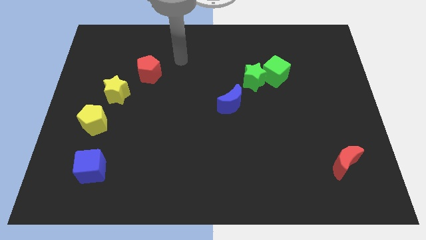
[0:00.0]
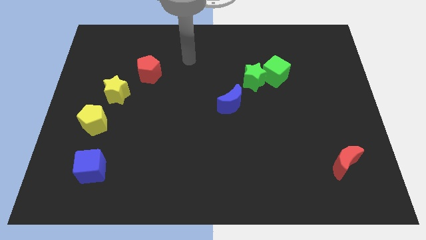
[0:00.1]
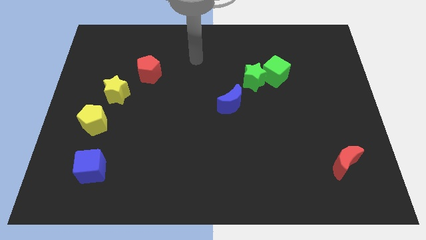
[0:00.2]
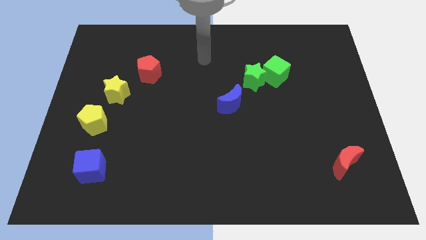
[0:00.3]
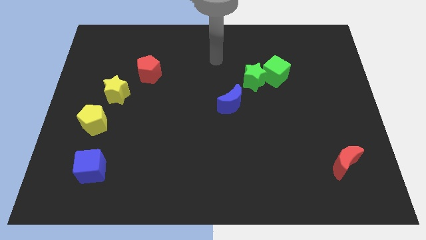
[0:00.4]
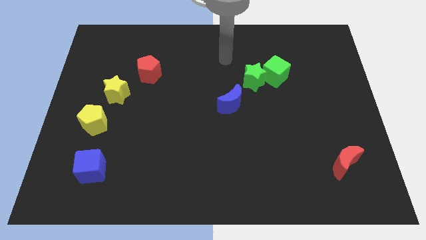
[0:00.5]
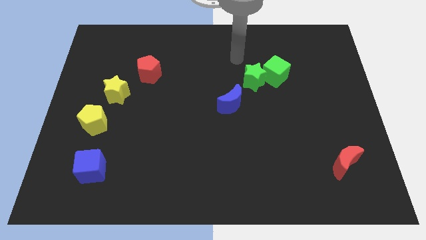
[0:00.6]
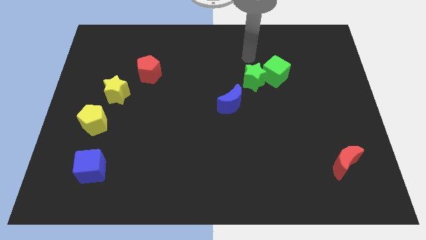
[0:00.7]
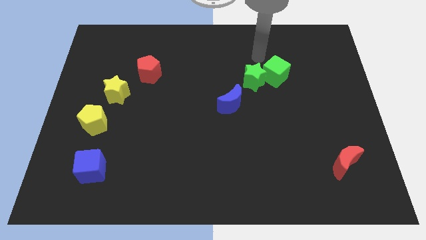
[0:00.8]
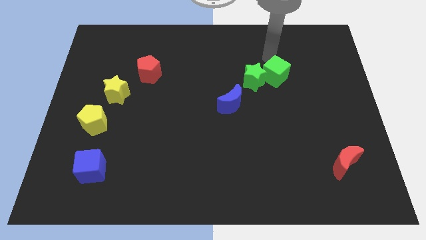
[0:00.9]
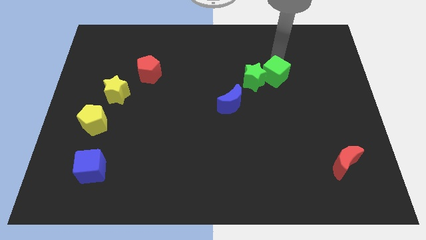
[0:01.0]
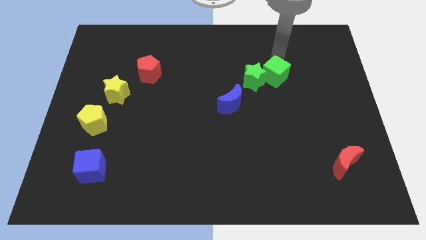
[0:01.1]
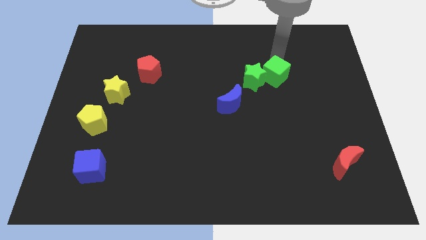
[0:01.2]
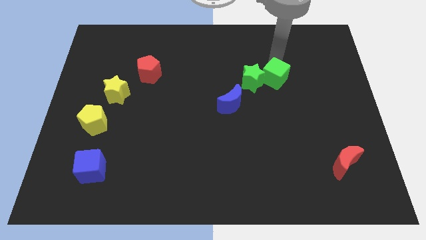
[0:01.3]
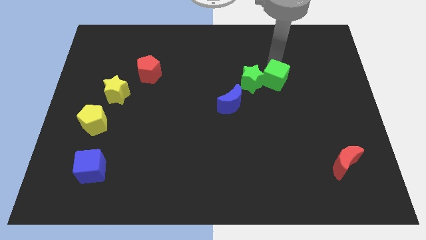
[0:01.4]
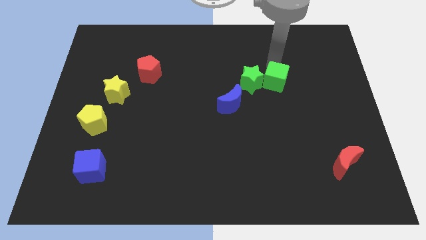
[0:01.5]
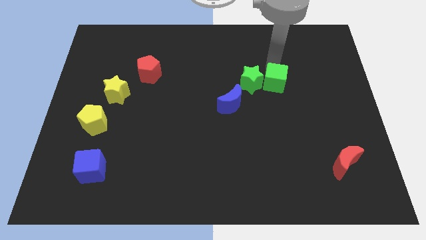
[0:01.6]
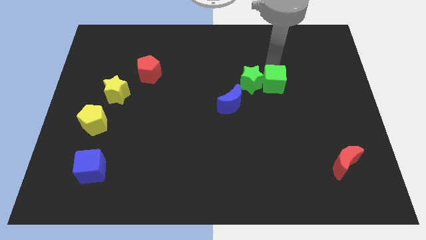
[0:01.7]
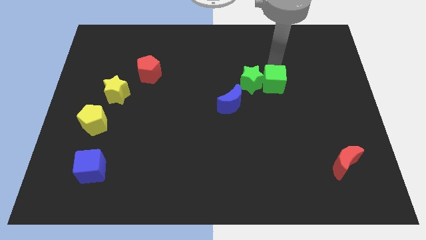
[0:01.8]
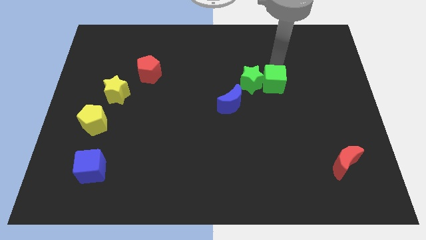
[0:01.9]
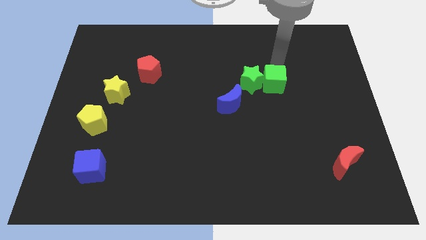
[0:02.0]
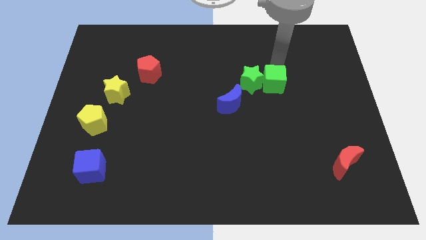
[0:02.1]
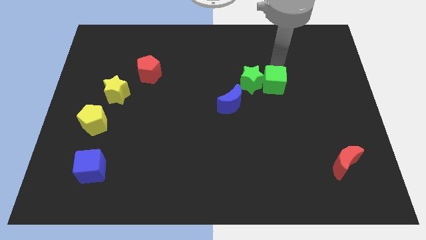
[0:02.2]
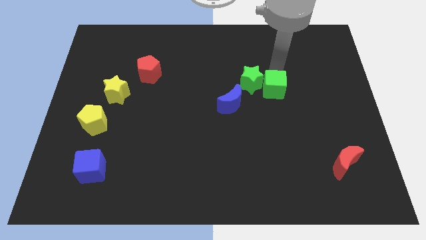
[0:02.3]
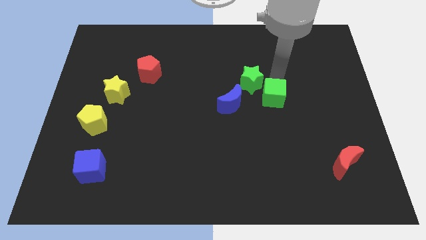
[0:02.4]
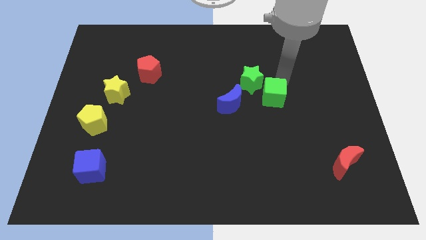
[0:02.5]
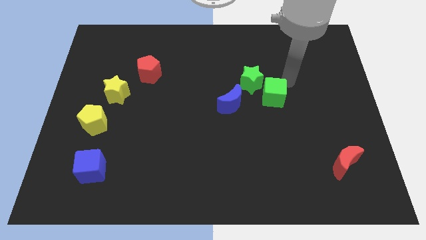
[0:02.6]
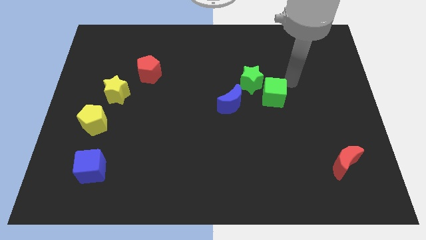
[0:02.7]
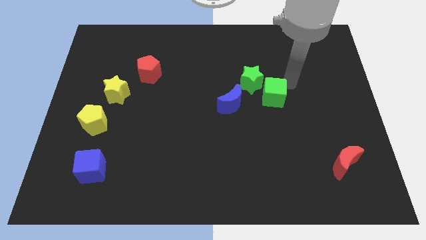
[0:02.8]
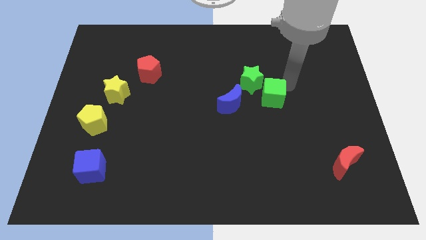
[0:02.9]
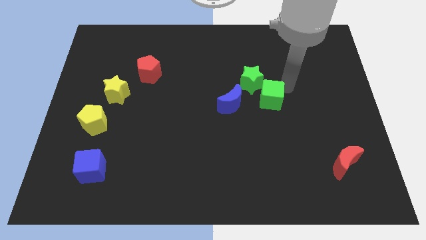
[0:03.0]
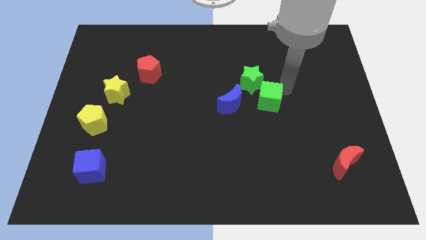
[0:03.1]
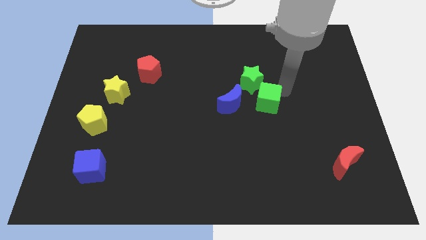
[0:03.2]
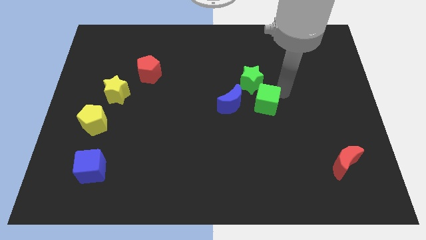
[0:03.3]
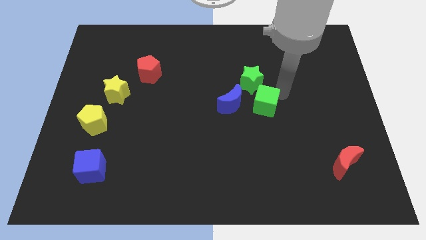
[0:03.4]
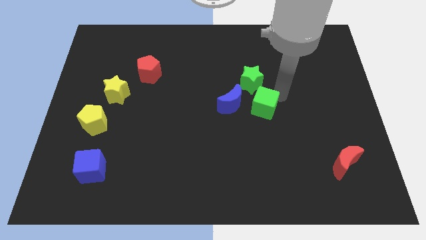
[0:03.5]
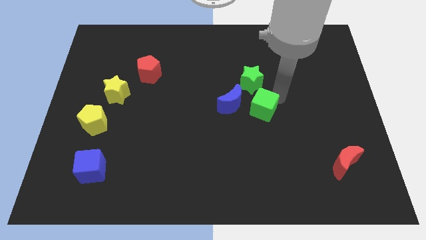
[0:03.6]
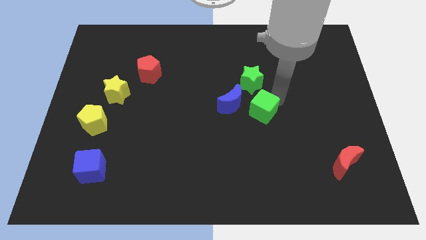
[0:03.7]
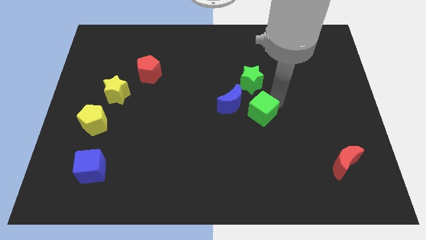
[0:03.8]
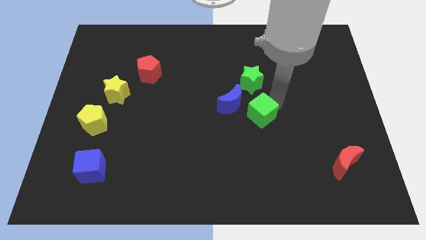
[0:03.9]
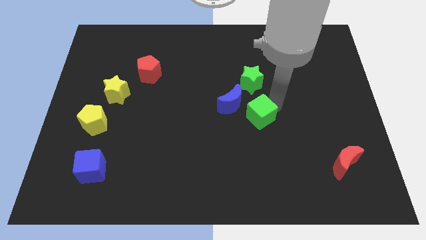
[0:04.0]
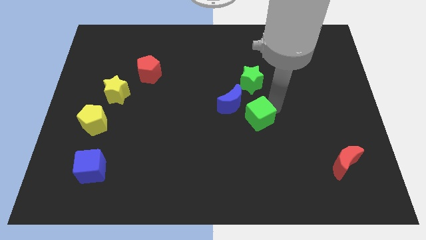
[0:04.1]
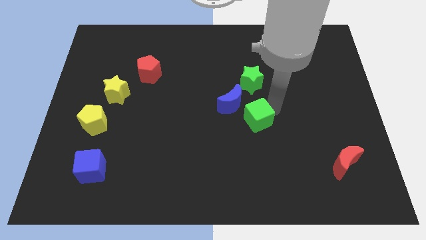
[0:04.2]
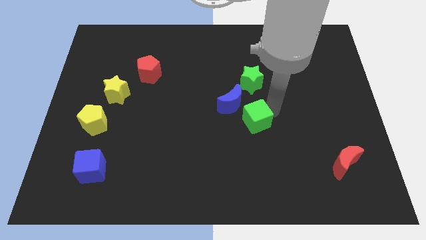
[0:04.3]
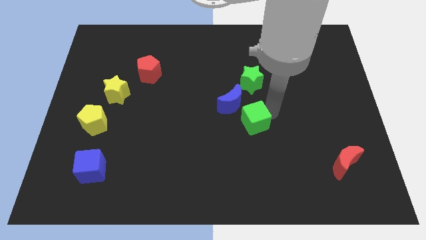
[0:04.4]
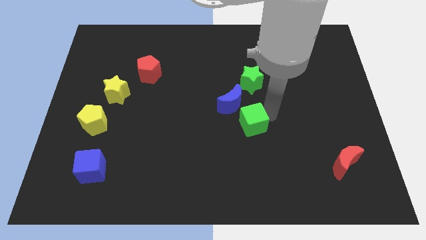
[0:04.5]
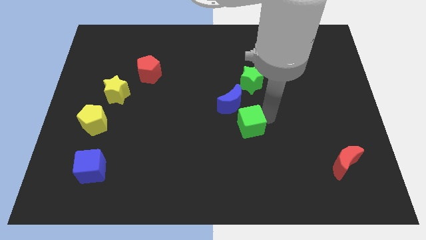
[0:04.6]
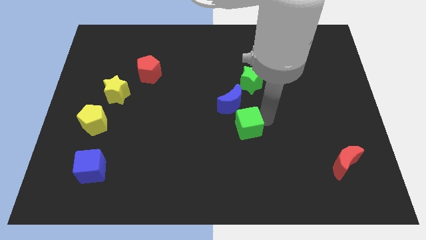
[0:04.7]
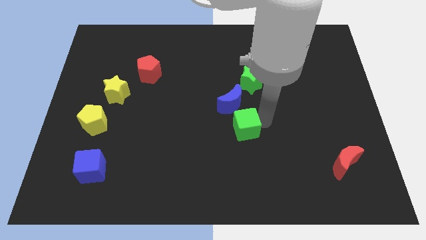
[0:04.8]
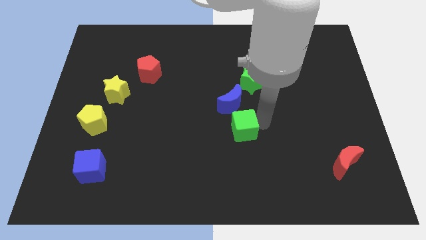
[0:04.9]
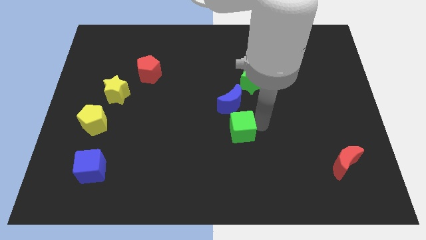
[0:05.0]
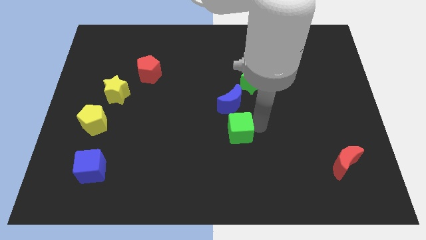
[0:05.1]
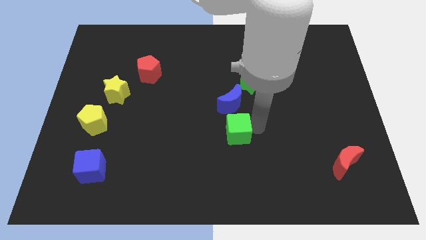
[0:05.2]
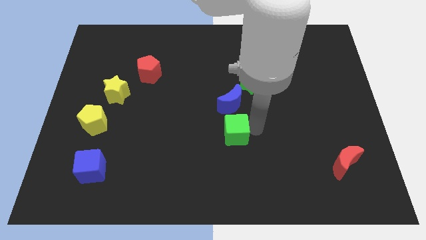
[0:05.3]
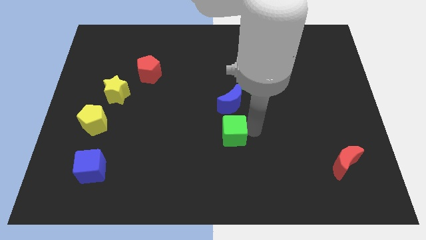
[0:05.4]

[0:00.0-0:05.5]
push the green cube downwards and then to the left

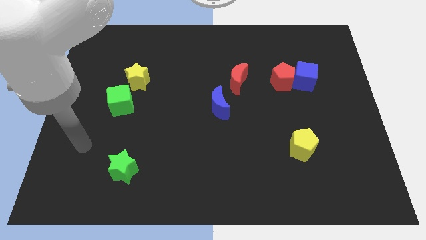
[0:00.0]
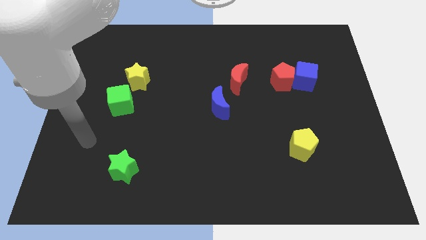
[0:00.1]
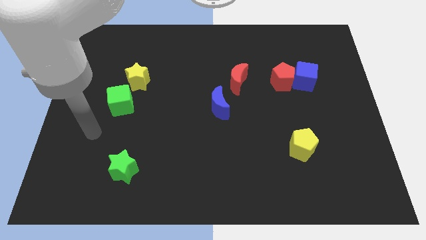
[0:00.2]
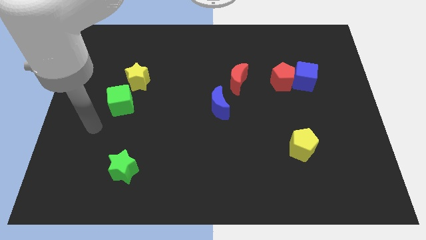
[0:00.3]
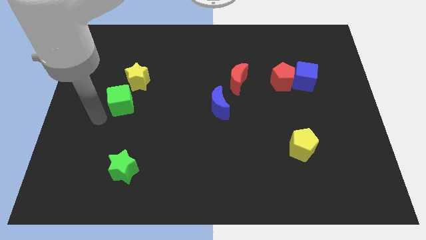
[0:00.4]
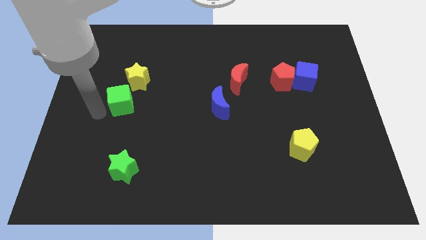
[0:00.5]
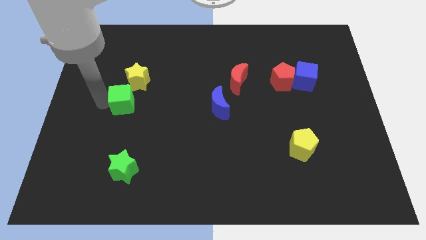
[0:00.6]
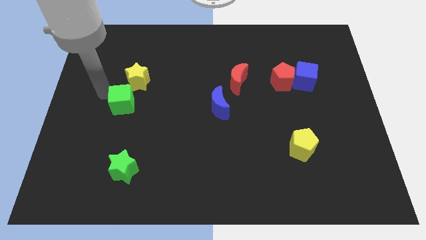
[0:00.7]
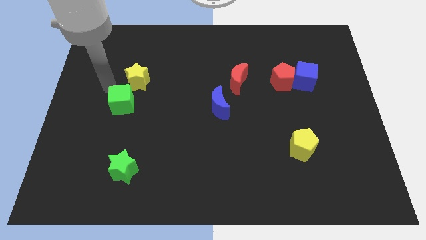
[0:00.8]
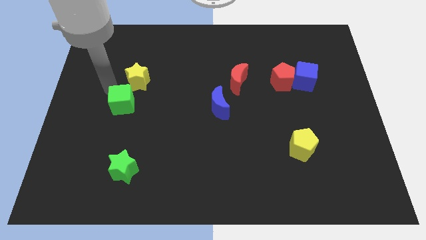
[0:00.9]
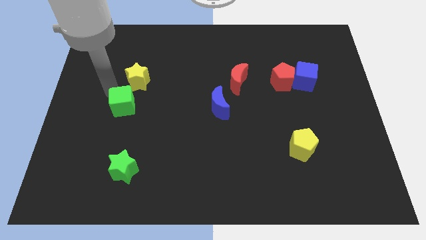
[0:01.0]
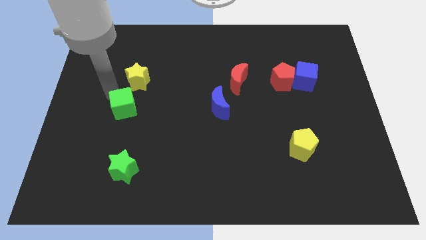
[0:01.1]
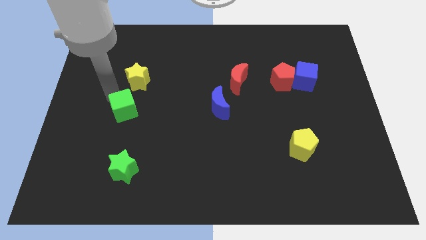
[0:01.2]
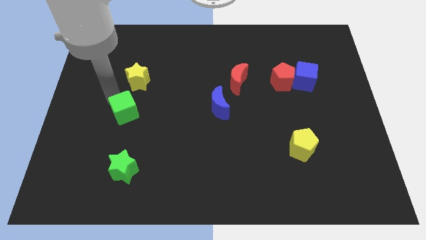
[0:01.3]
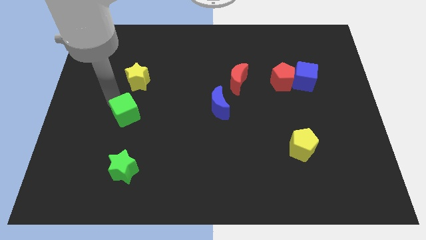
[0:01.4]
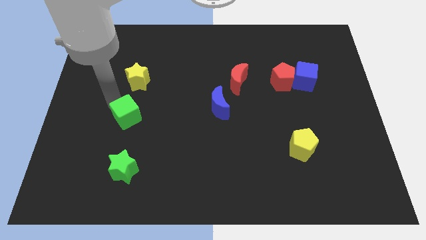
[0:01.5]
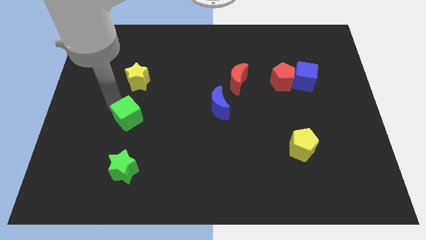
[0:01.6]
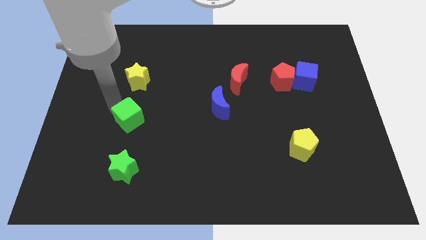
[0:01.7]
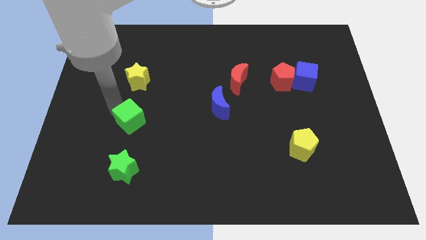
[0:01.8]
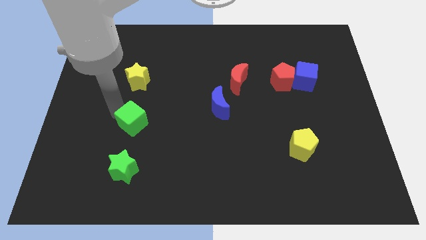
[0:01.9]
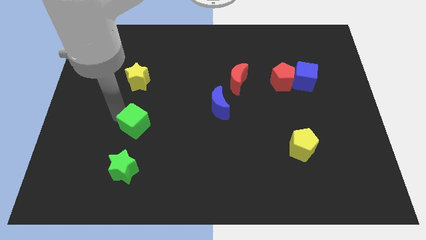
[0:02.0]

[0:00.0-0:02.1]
push the green cube slightly down and to the right

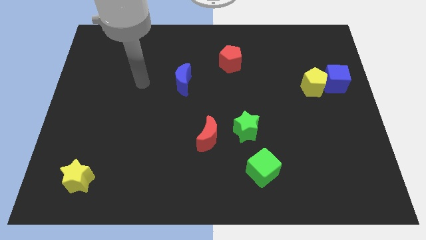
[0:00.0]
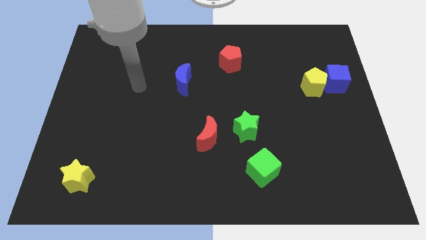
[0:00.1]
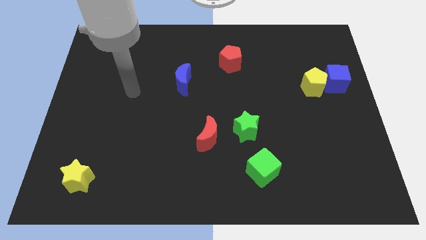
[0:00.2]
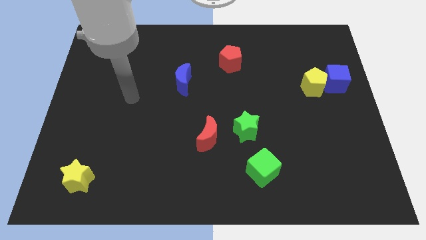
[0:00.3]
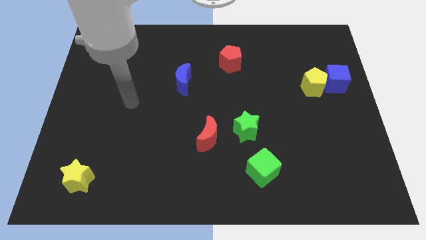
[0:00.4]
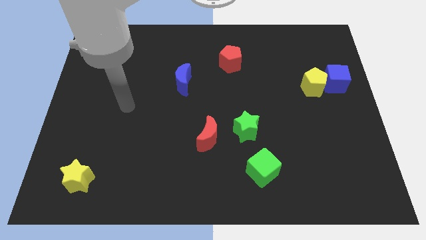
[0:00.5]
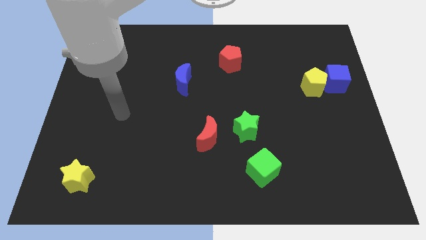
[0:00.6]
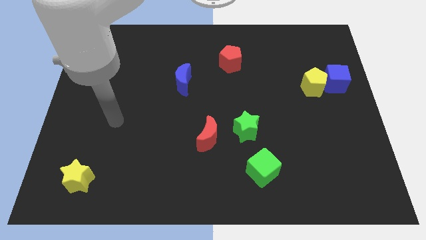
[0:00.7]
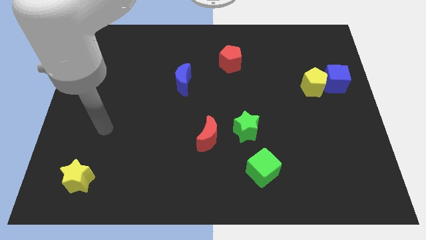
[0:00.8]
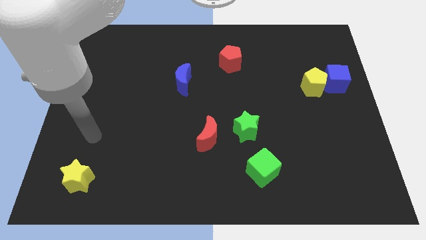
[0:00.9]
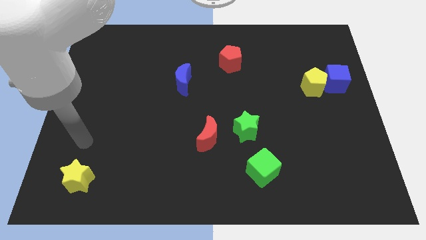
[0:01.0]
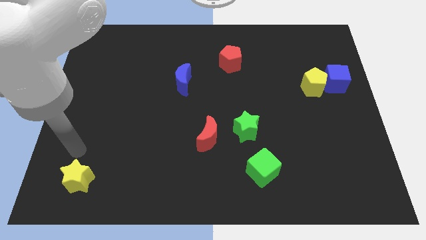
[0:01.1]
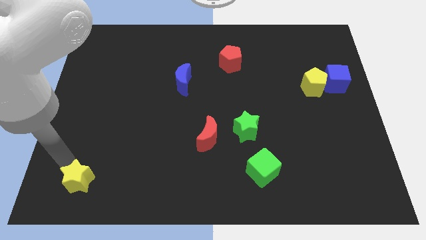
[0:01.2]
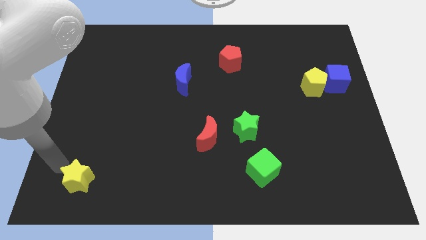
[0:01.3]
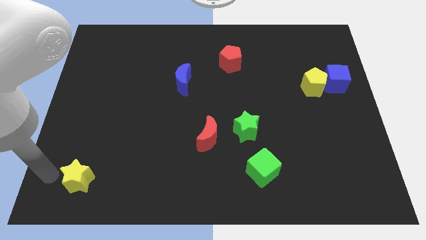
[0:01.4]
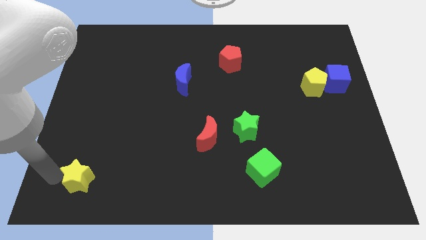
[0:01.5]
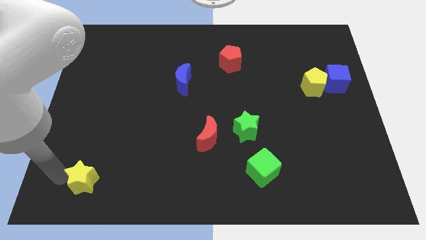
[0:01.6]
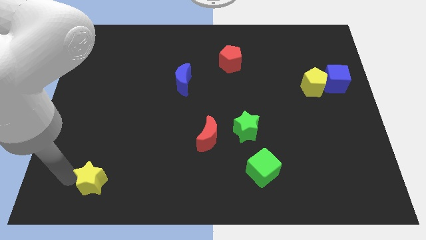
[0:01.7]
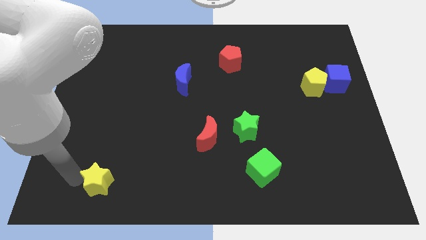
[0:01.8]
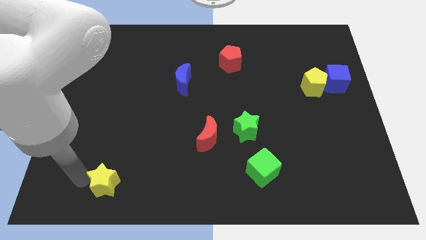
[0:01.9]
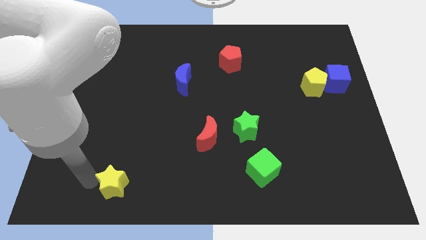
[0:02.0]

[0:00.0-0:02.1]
move the yellow star slightly right
